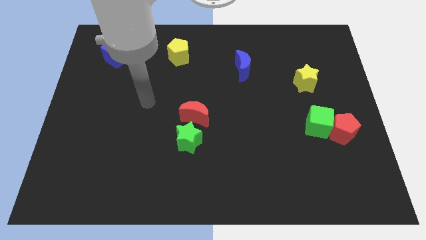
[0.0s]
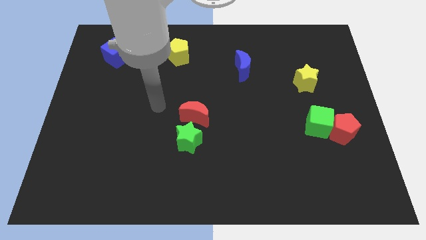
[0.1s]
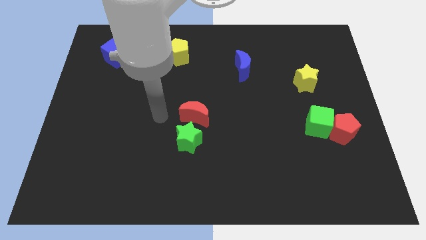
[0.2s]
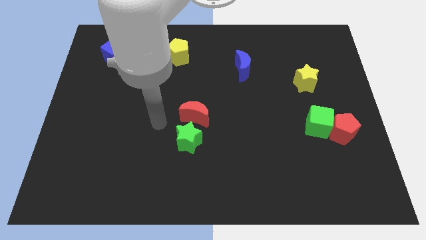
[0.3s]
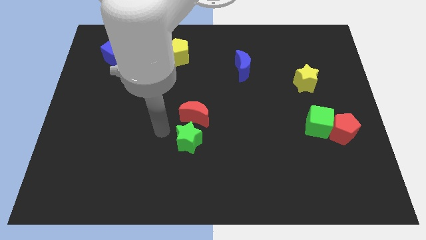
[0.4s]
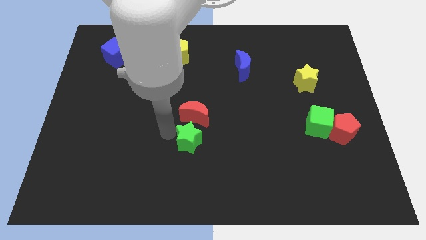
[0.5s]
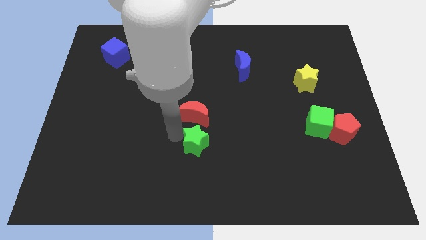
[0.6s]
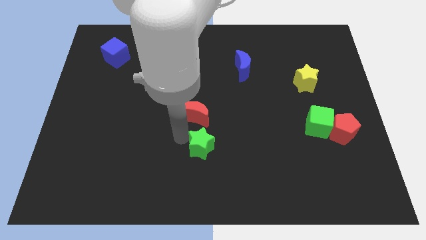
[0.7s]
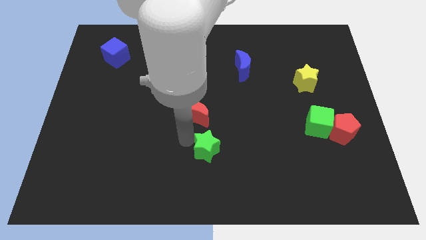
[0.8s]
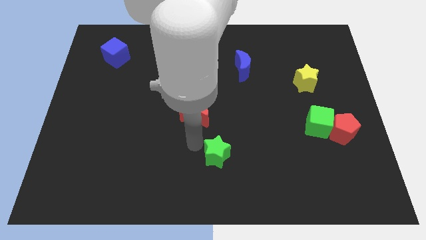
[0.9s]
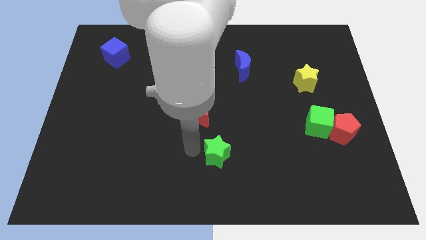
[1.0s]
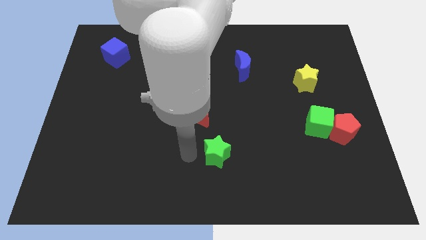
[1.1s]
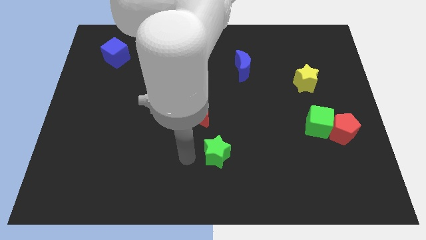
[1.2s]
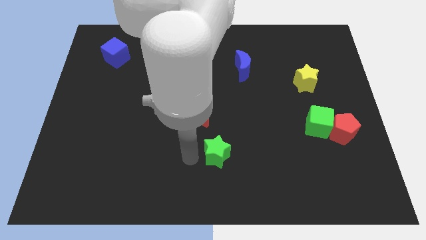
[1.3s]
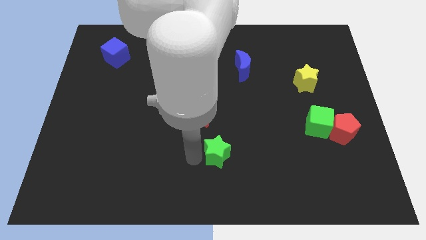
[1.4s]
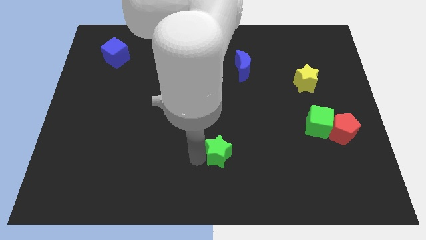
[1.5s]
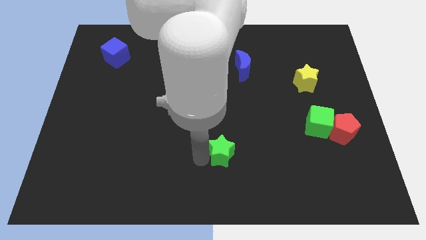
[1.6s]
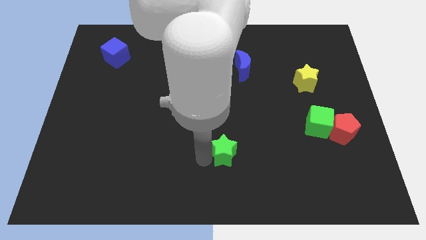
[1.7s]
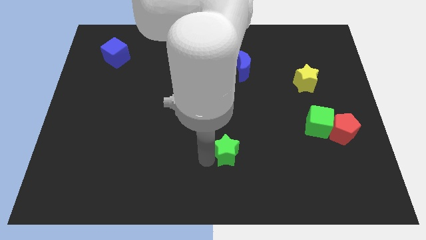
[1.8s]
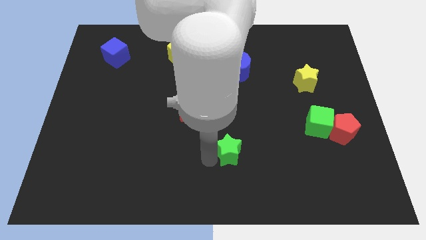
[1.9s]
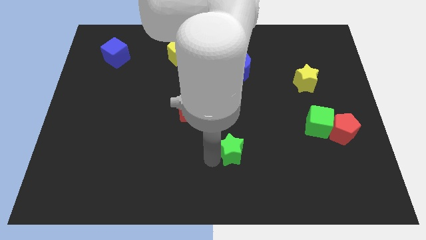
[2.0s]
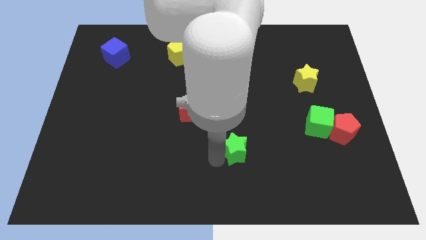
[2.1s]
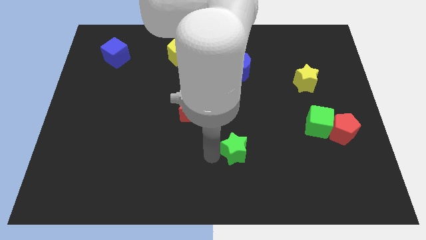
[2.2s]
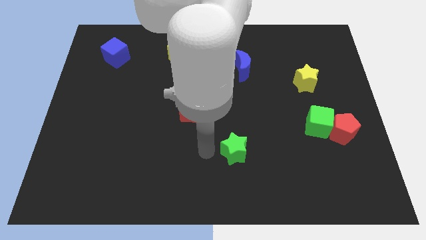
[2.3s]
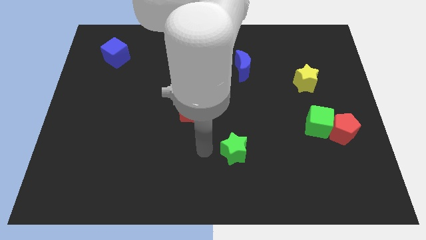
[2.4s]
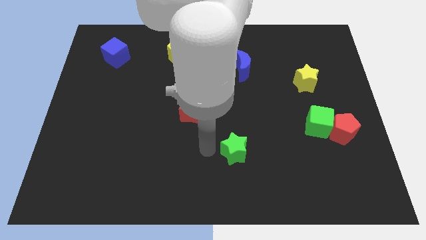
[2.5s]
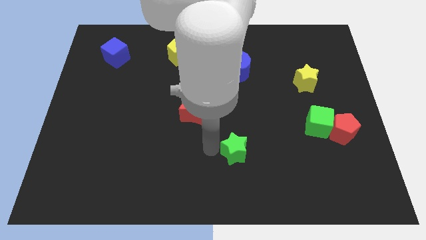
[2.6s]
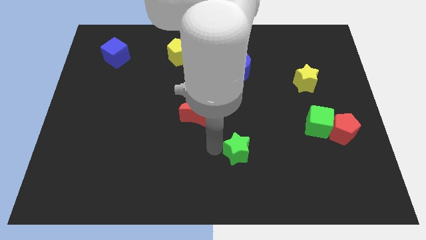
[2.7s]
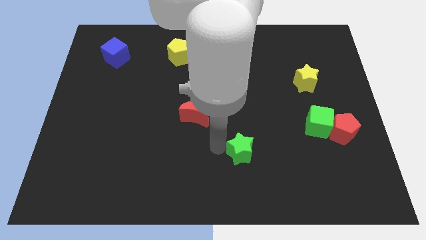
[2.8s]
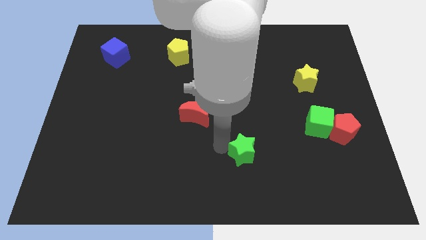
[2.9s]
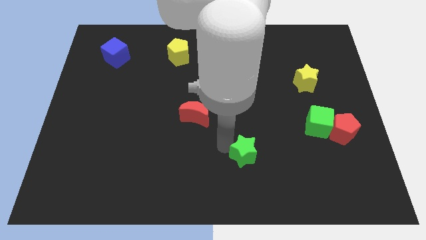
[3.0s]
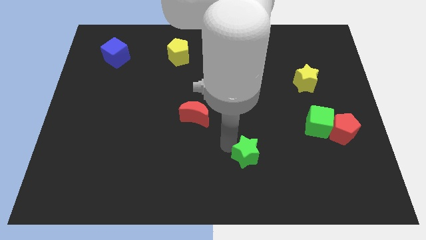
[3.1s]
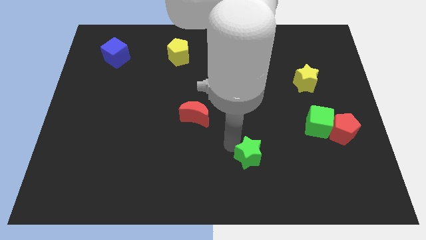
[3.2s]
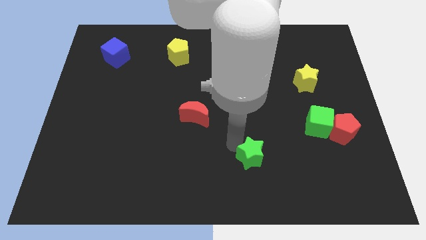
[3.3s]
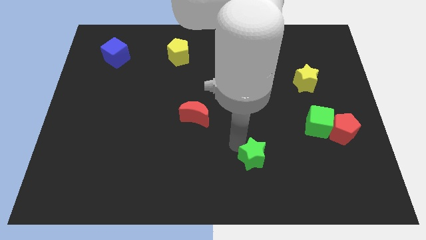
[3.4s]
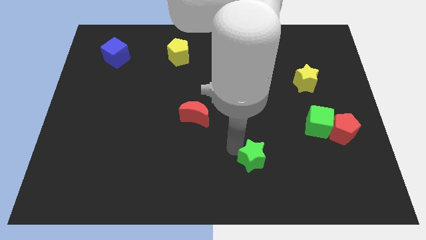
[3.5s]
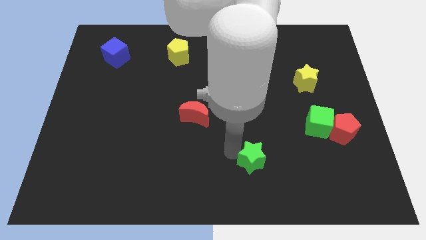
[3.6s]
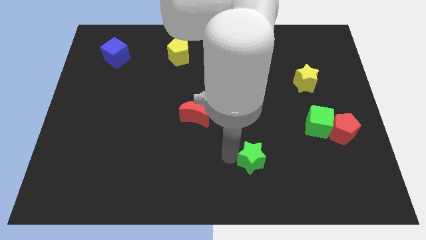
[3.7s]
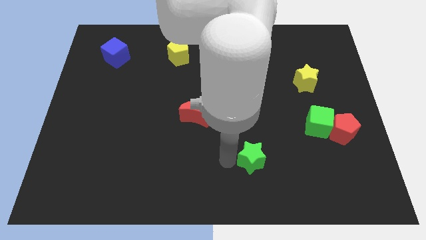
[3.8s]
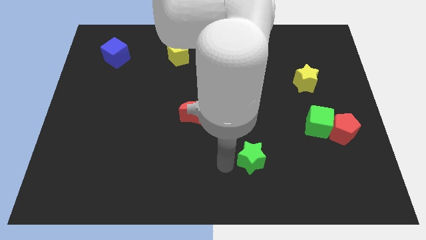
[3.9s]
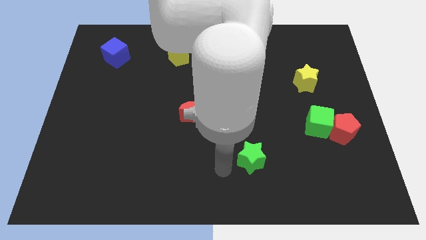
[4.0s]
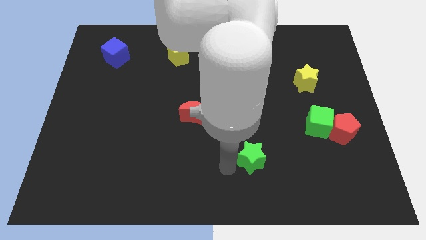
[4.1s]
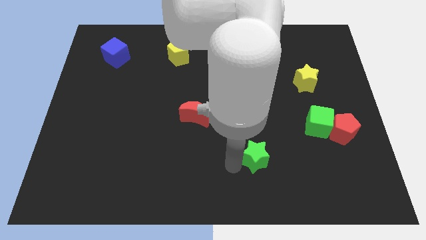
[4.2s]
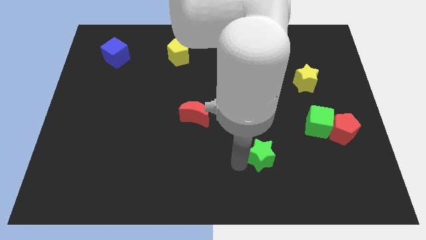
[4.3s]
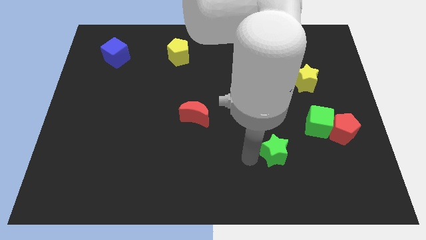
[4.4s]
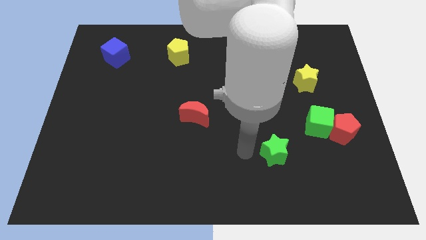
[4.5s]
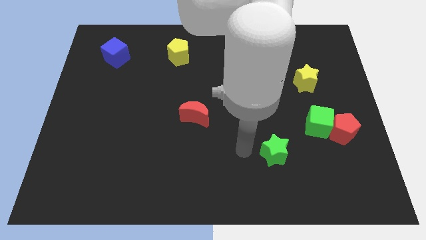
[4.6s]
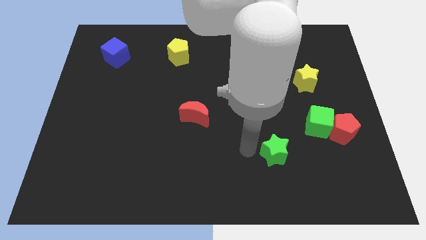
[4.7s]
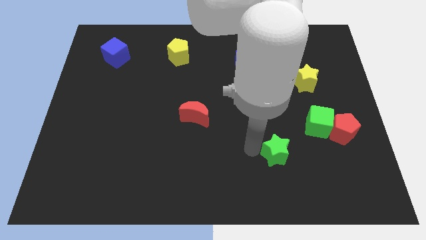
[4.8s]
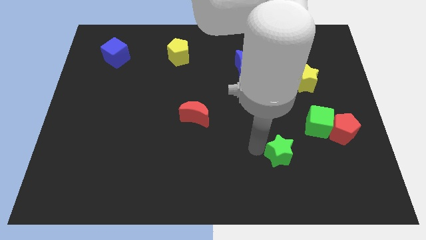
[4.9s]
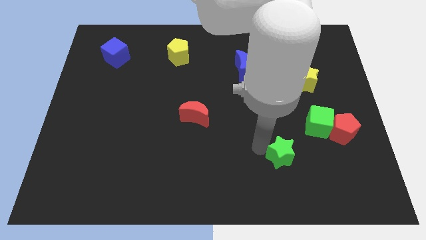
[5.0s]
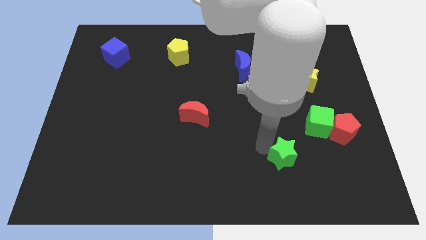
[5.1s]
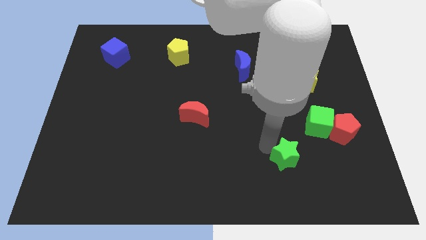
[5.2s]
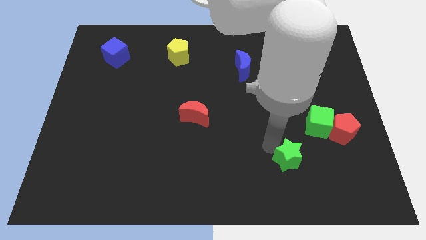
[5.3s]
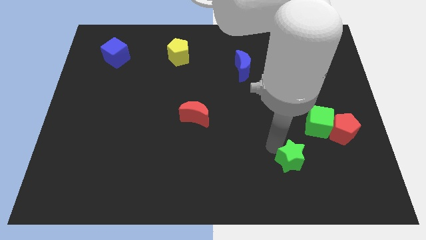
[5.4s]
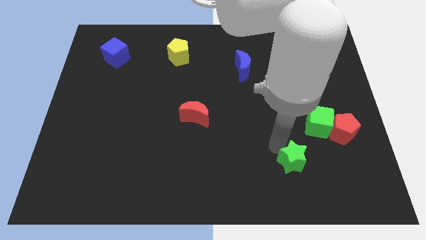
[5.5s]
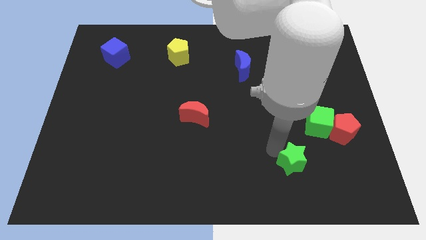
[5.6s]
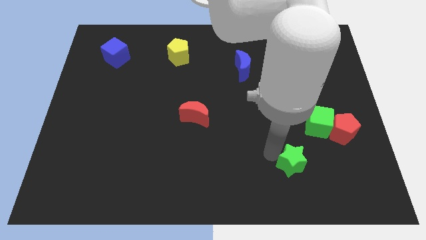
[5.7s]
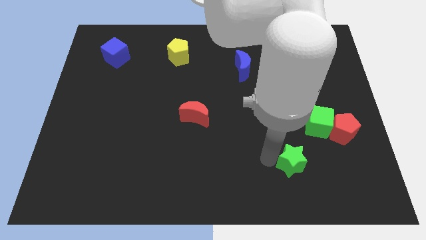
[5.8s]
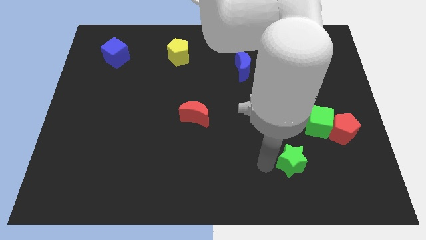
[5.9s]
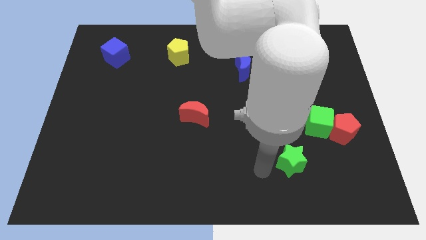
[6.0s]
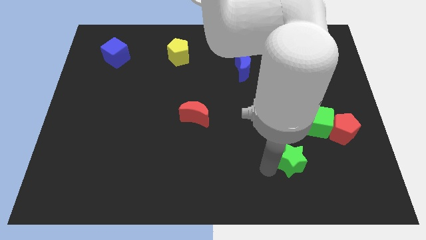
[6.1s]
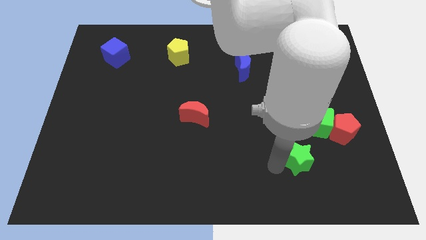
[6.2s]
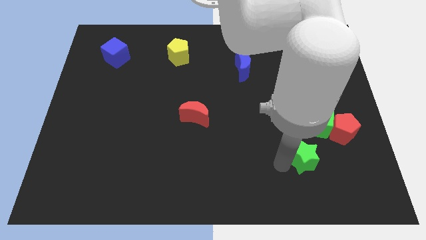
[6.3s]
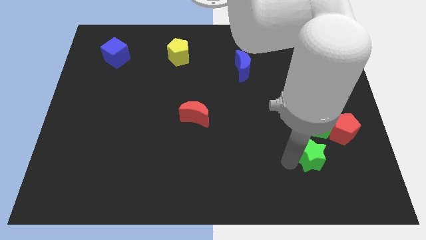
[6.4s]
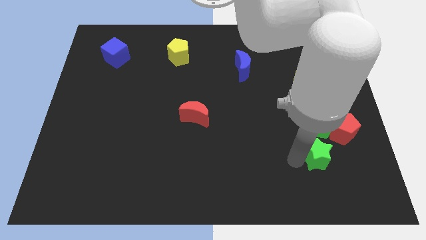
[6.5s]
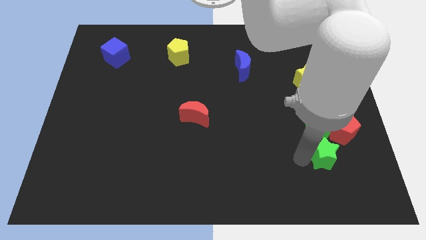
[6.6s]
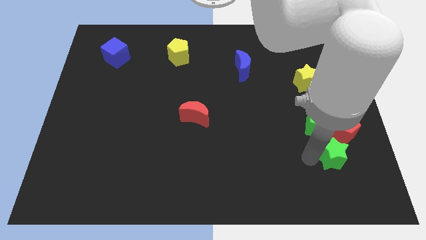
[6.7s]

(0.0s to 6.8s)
slide the green star to the bottom right side of the green cube

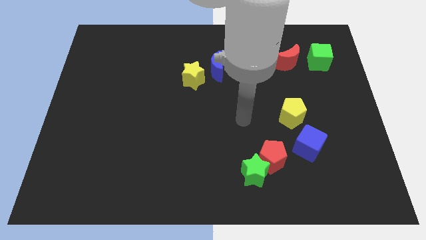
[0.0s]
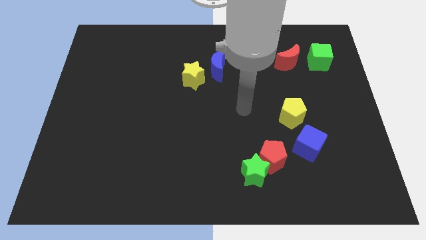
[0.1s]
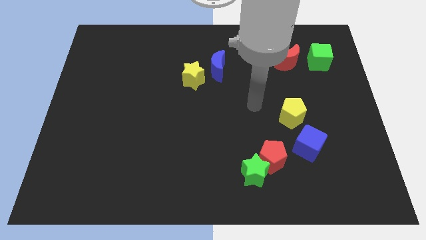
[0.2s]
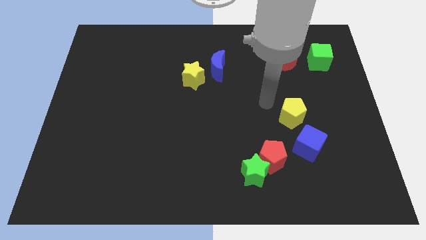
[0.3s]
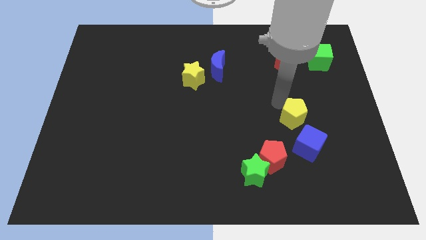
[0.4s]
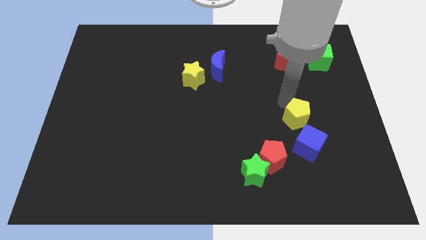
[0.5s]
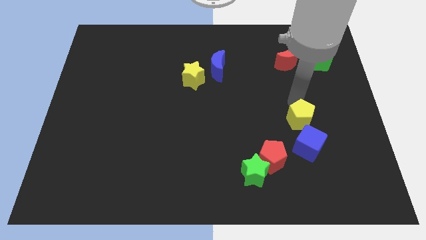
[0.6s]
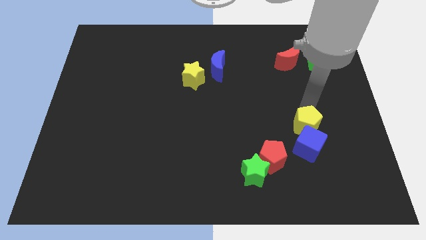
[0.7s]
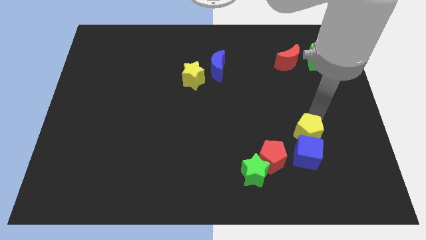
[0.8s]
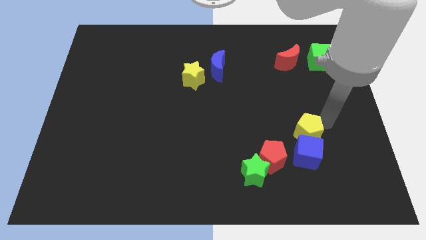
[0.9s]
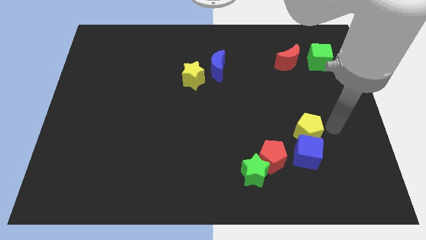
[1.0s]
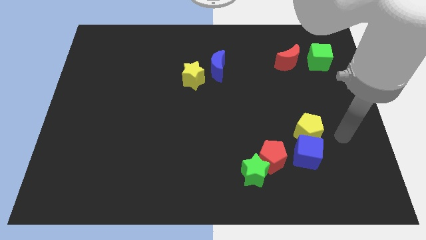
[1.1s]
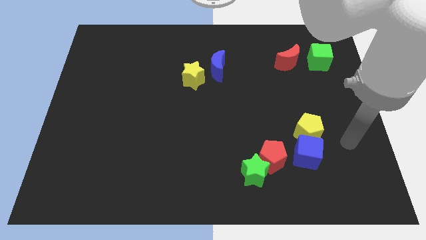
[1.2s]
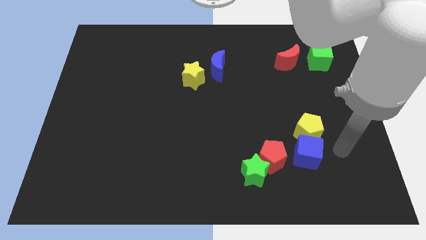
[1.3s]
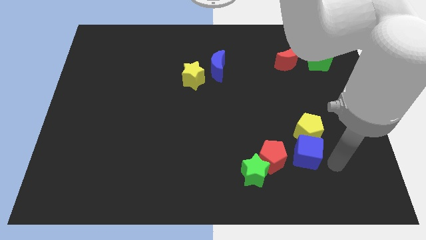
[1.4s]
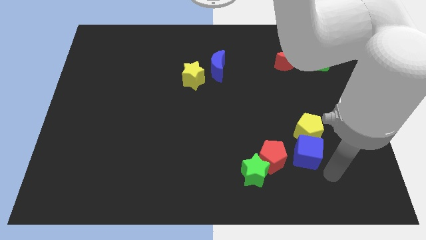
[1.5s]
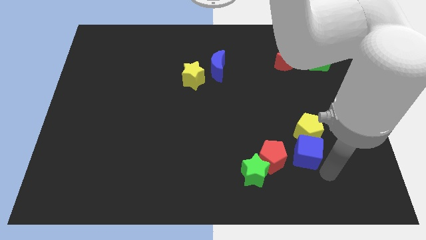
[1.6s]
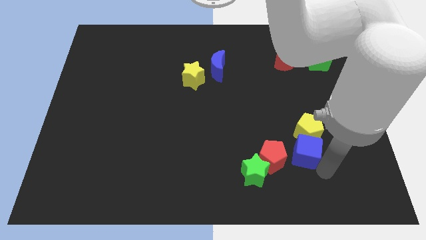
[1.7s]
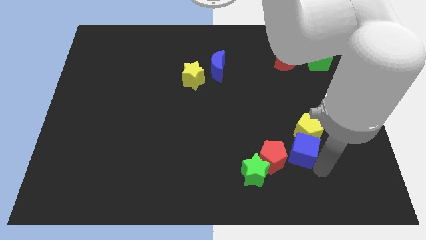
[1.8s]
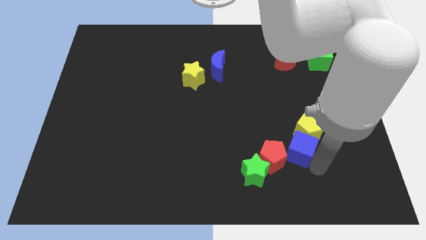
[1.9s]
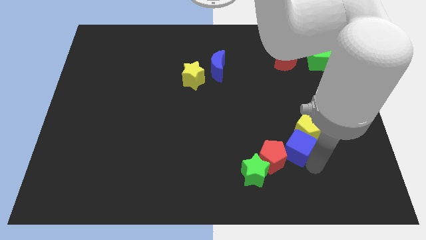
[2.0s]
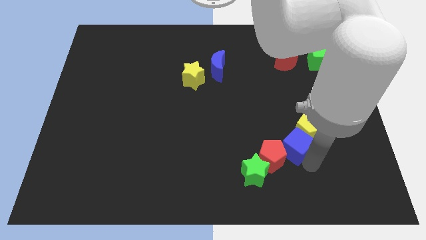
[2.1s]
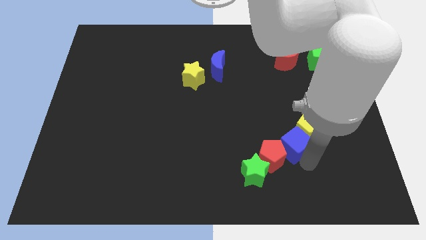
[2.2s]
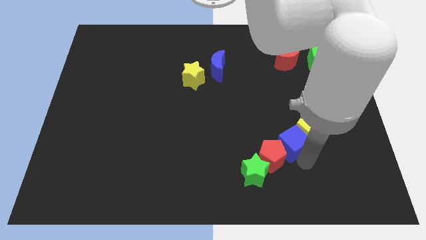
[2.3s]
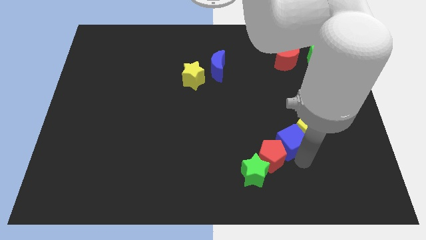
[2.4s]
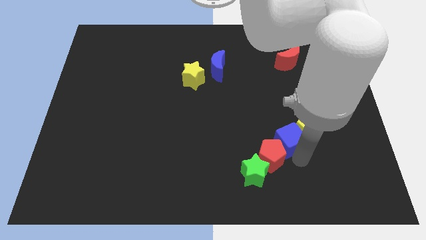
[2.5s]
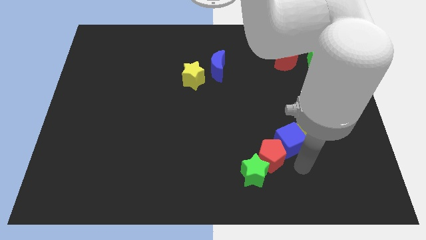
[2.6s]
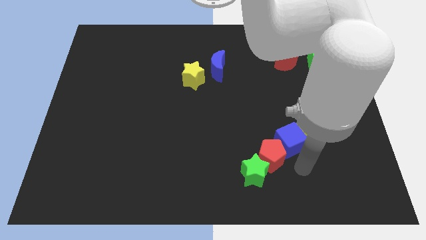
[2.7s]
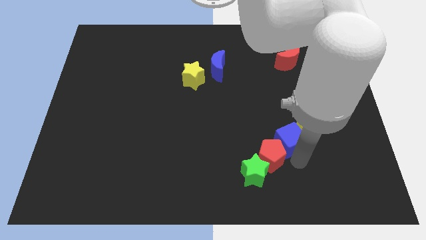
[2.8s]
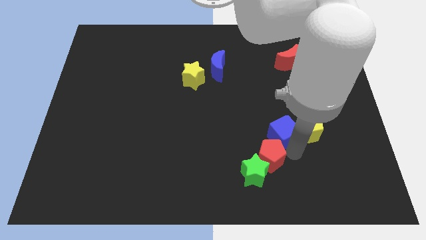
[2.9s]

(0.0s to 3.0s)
put the blue cube to the top left side of the yellow pentagon
